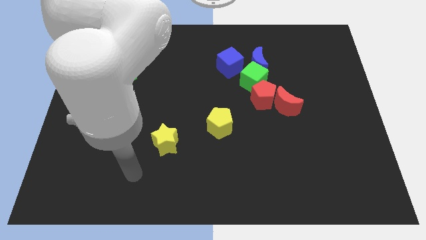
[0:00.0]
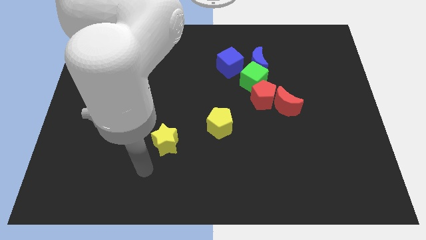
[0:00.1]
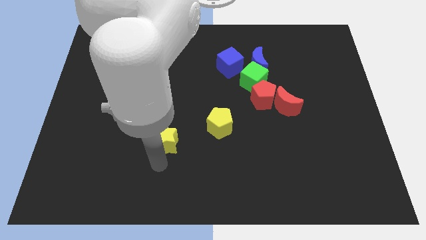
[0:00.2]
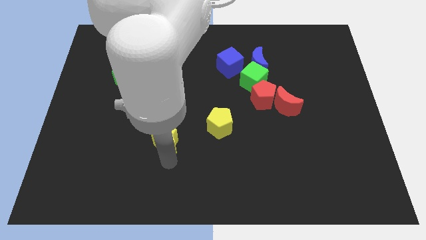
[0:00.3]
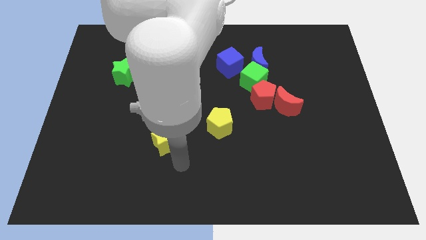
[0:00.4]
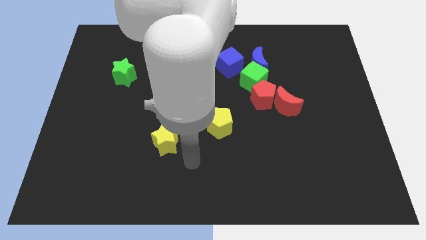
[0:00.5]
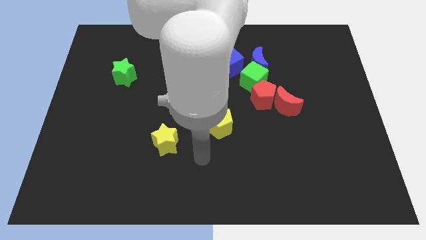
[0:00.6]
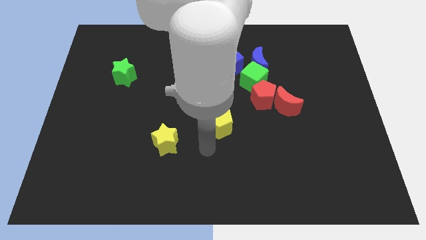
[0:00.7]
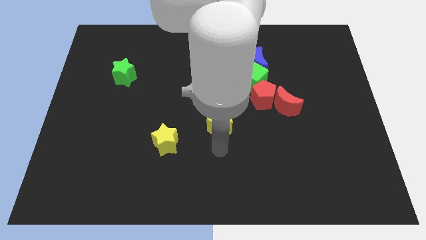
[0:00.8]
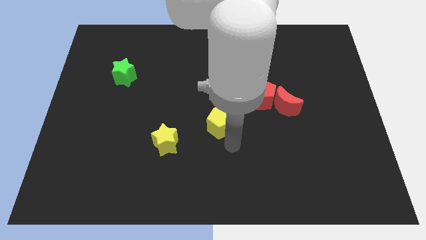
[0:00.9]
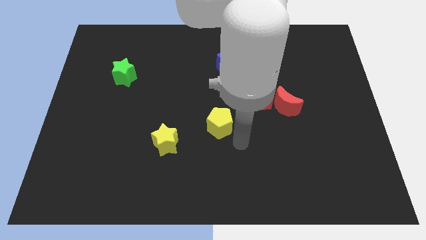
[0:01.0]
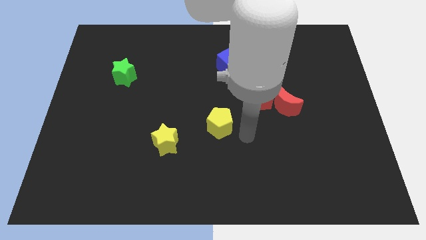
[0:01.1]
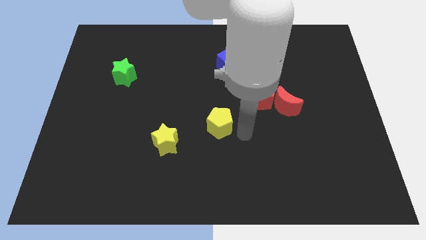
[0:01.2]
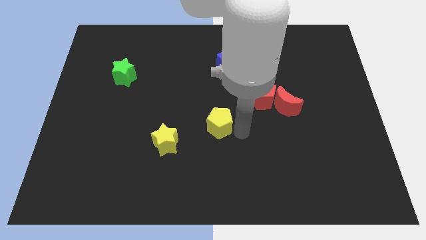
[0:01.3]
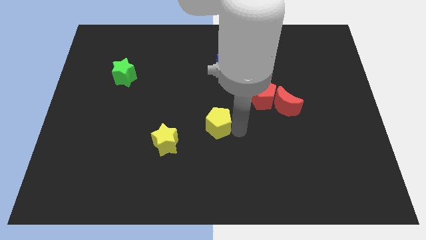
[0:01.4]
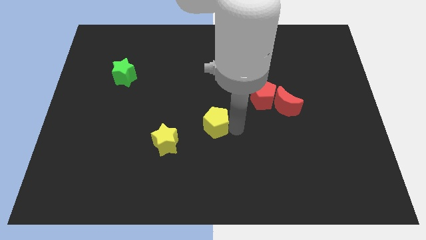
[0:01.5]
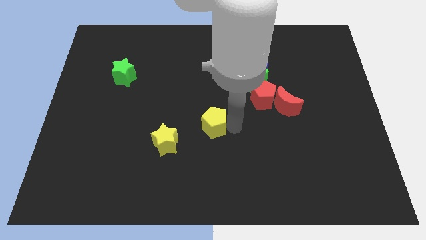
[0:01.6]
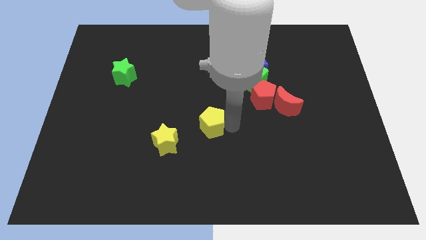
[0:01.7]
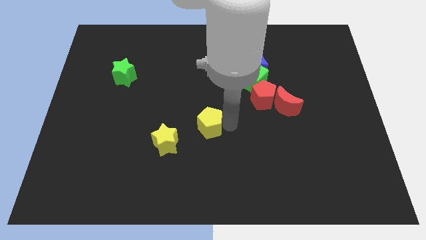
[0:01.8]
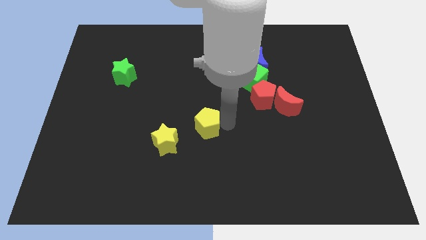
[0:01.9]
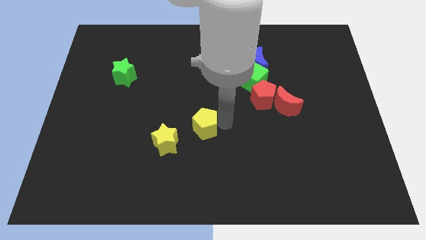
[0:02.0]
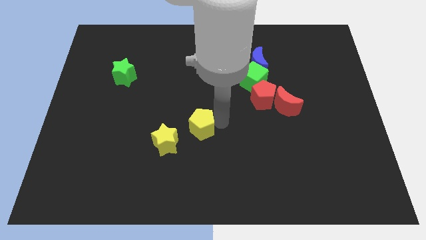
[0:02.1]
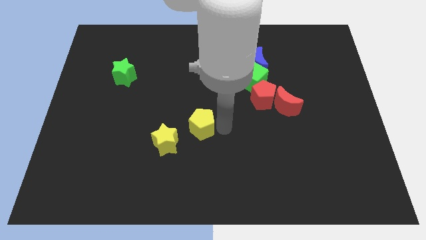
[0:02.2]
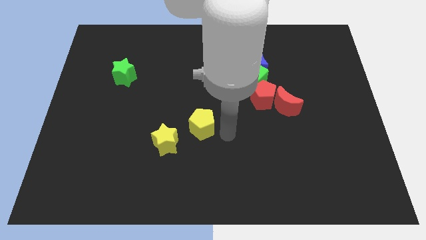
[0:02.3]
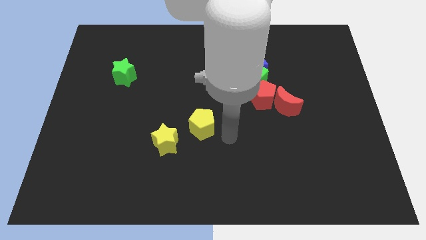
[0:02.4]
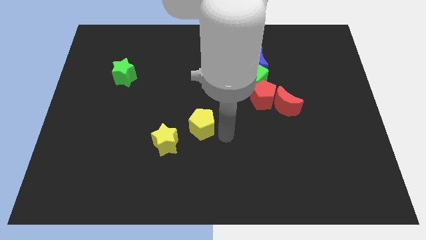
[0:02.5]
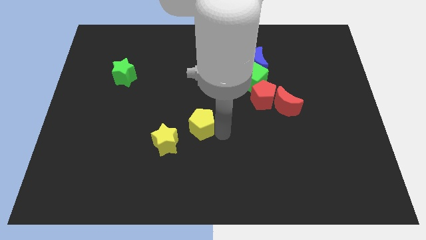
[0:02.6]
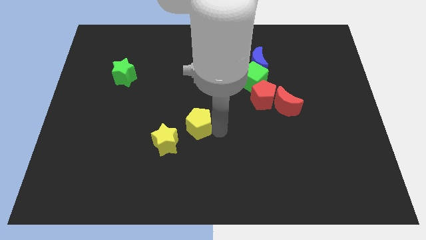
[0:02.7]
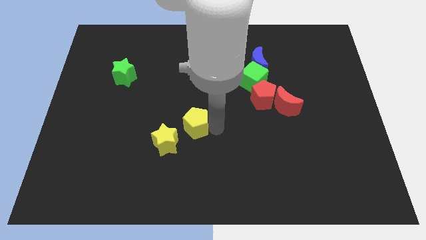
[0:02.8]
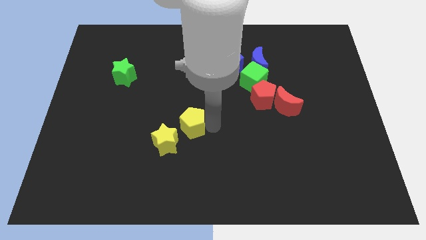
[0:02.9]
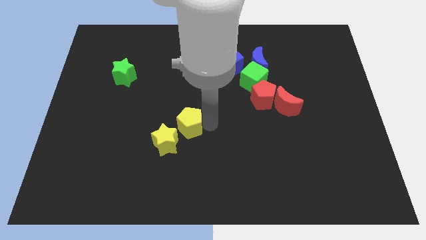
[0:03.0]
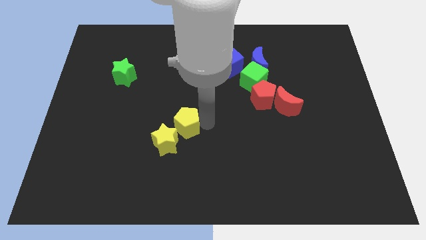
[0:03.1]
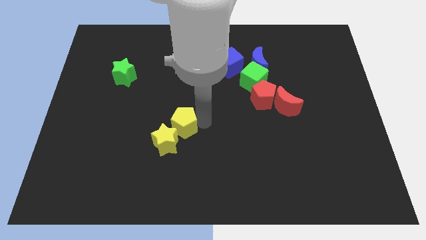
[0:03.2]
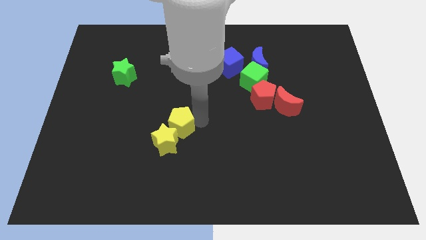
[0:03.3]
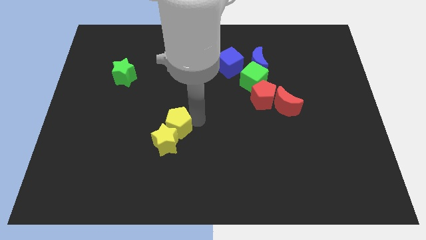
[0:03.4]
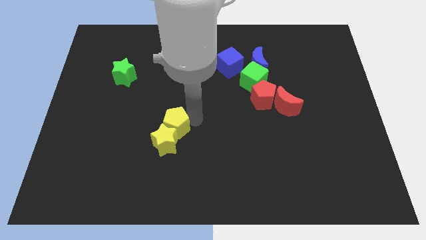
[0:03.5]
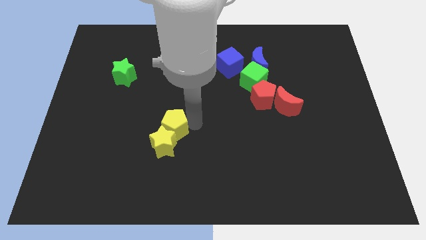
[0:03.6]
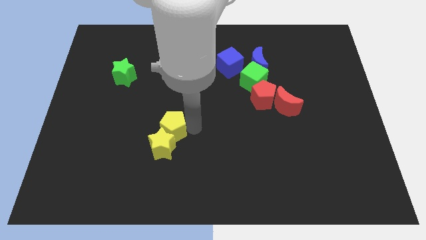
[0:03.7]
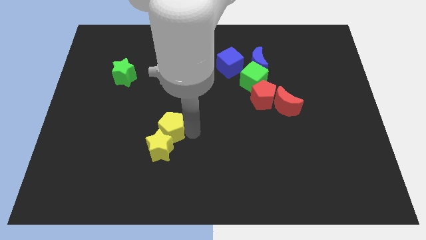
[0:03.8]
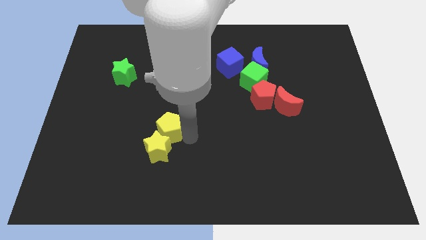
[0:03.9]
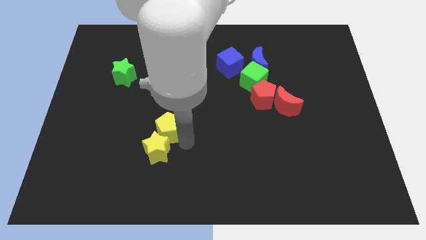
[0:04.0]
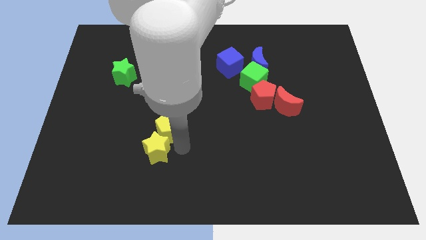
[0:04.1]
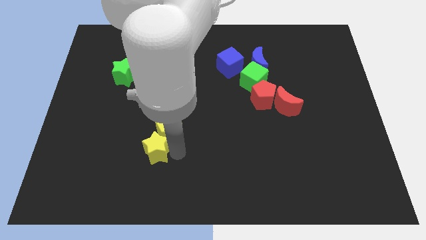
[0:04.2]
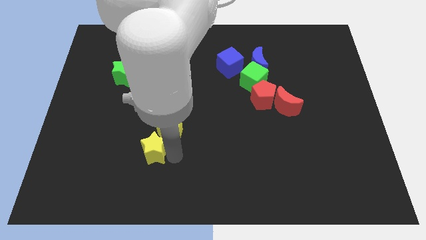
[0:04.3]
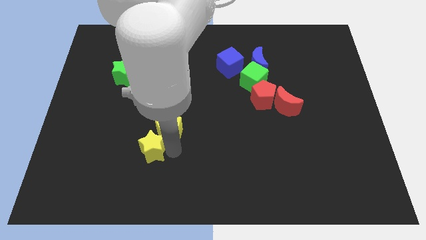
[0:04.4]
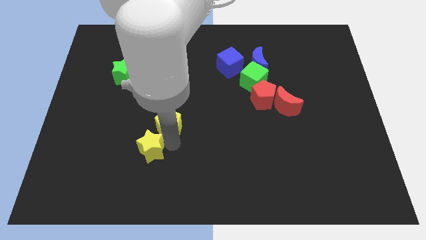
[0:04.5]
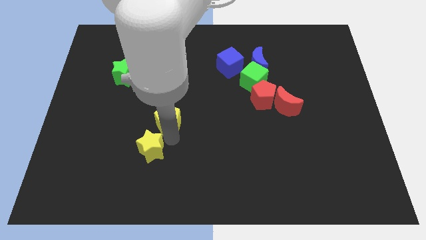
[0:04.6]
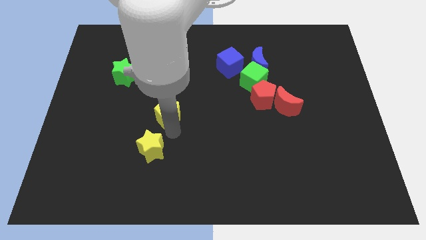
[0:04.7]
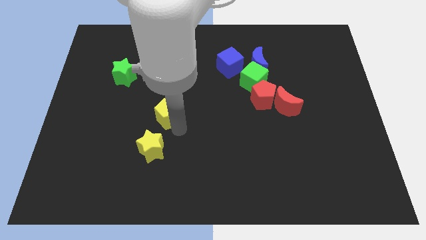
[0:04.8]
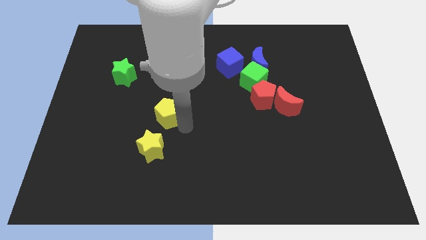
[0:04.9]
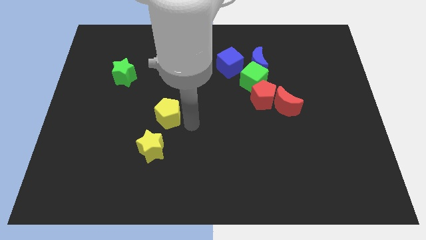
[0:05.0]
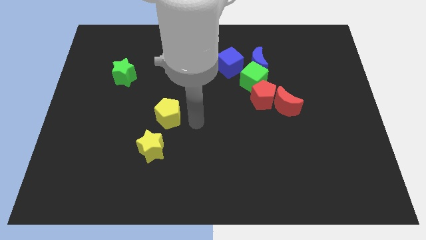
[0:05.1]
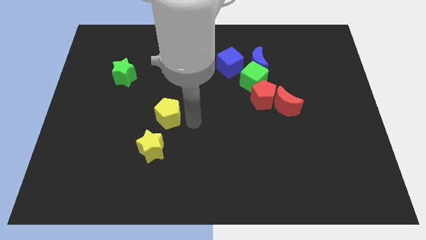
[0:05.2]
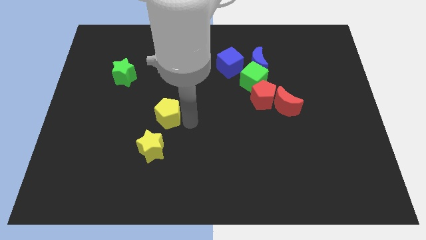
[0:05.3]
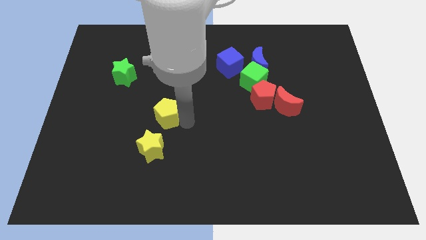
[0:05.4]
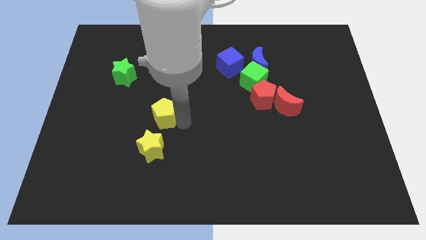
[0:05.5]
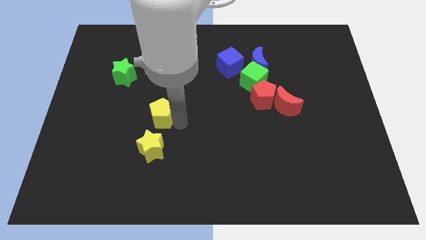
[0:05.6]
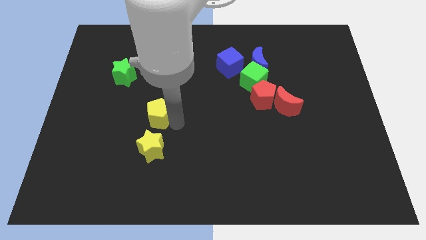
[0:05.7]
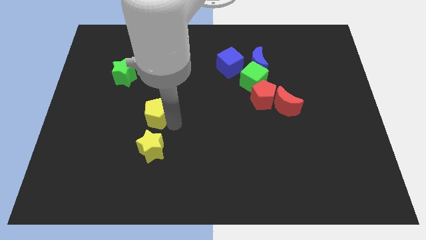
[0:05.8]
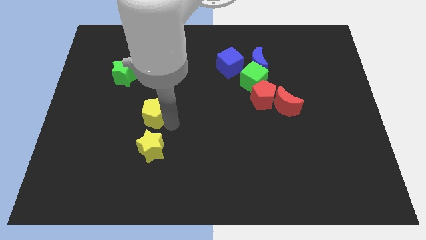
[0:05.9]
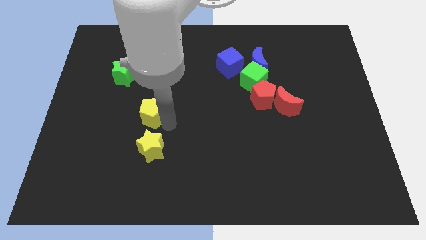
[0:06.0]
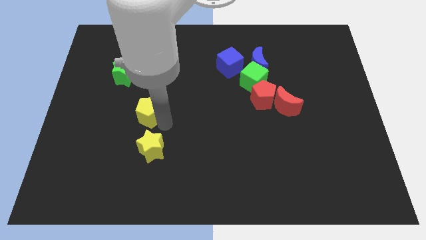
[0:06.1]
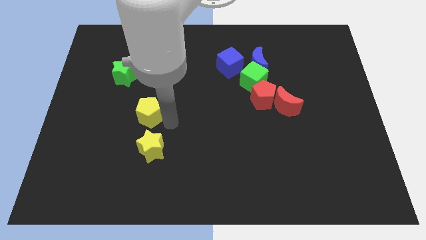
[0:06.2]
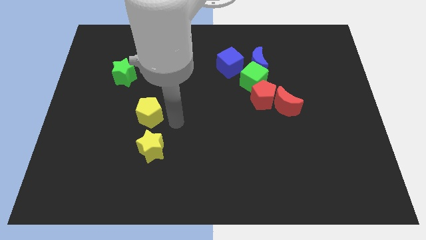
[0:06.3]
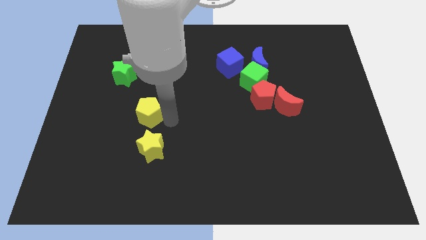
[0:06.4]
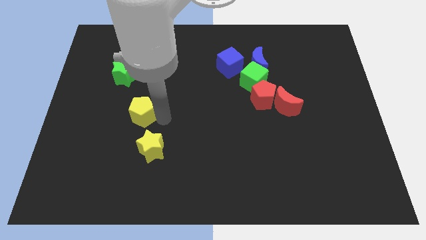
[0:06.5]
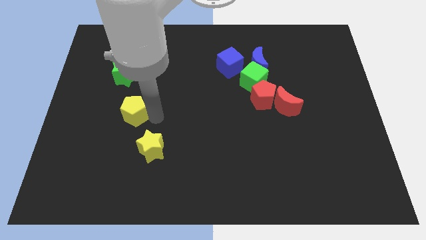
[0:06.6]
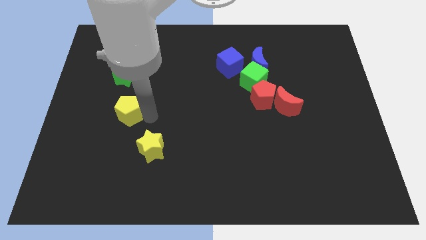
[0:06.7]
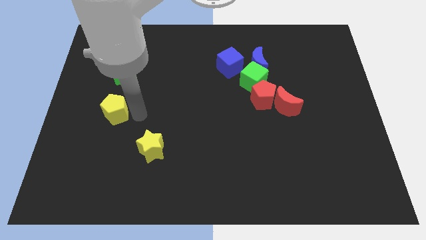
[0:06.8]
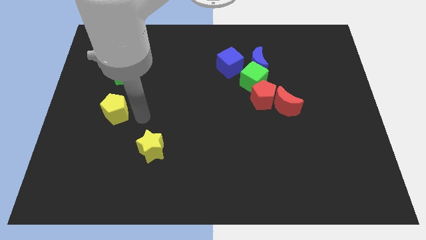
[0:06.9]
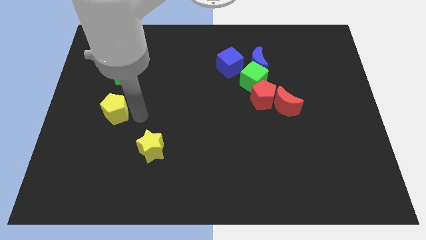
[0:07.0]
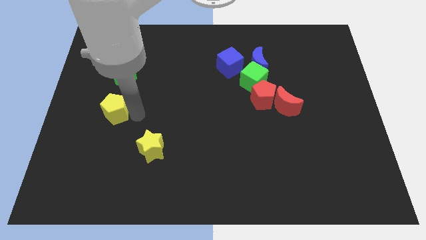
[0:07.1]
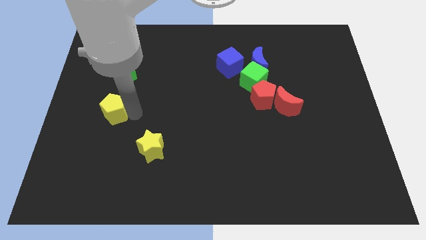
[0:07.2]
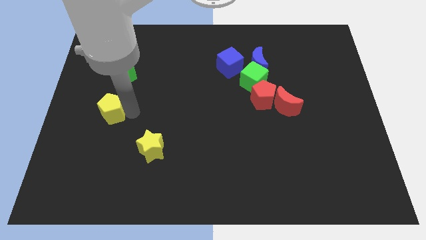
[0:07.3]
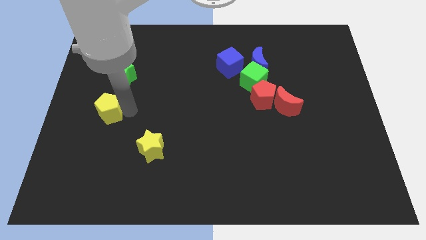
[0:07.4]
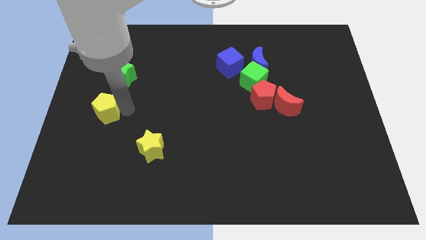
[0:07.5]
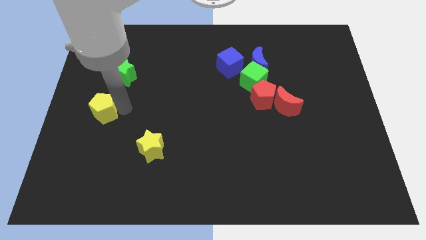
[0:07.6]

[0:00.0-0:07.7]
push the yellow pentagon to the center left
